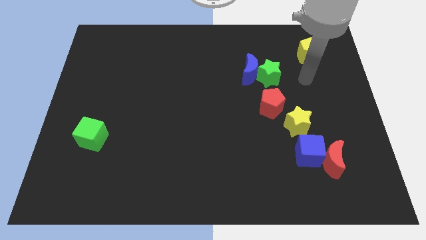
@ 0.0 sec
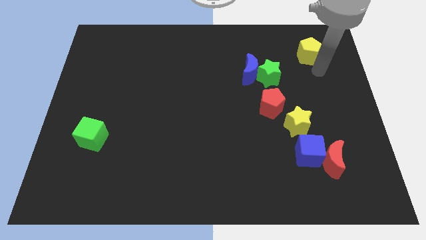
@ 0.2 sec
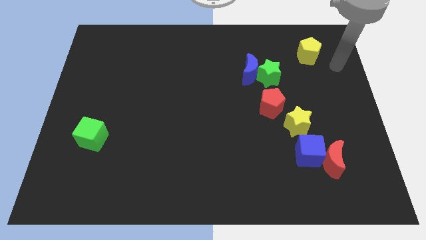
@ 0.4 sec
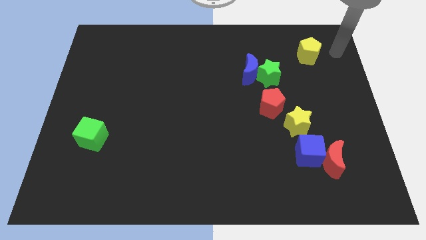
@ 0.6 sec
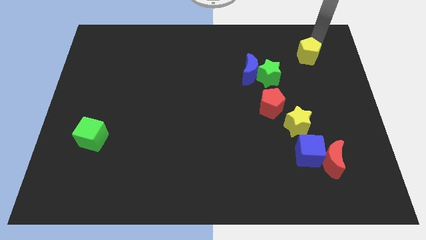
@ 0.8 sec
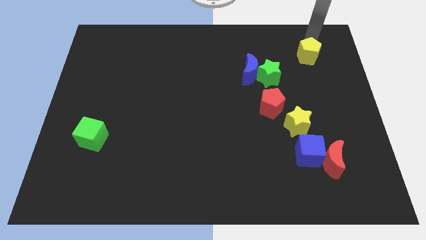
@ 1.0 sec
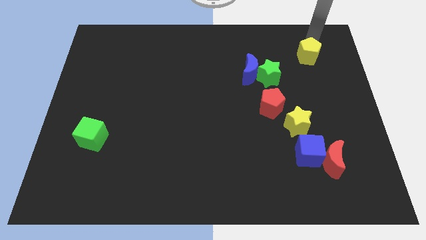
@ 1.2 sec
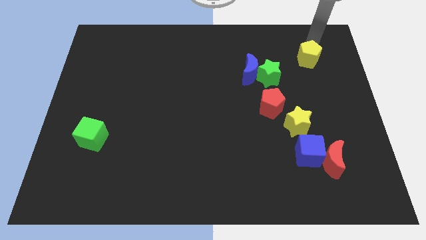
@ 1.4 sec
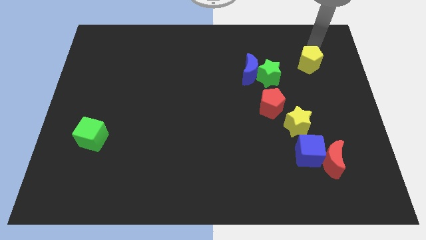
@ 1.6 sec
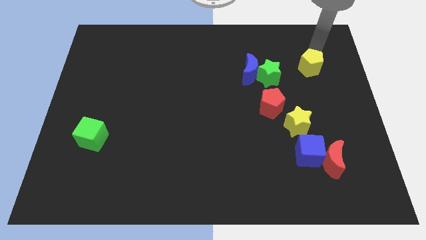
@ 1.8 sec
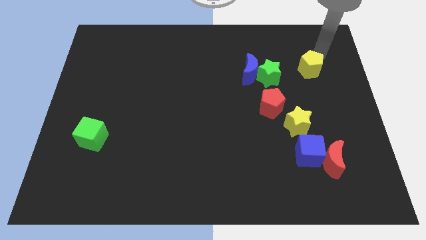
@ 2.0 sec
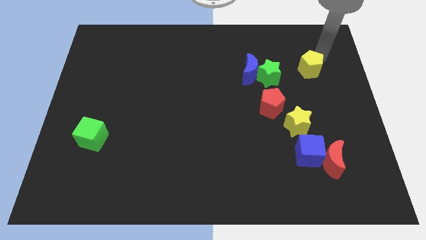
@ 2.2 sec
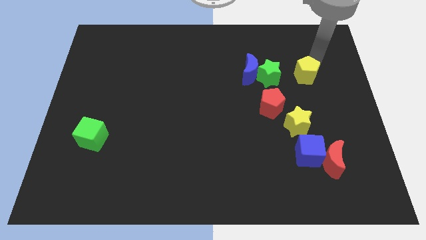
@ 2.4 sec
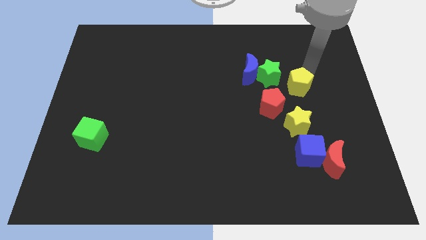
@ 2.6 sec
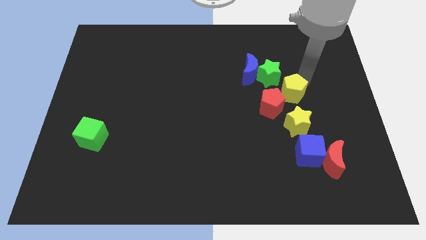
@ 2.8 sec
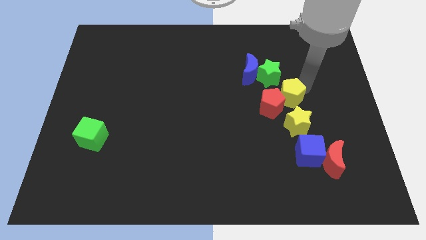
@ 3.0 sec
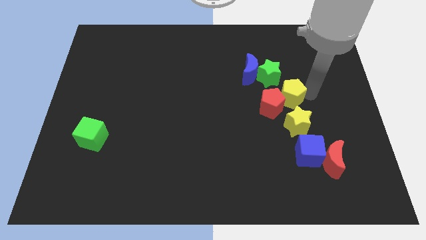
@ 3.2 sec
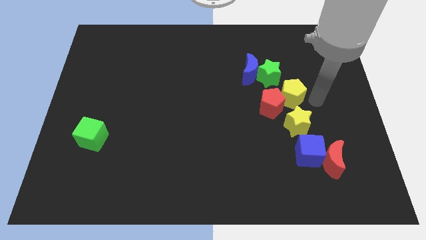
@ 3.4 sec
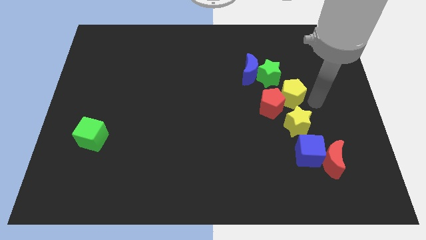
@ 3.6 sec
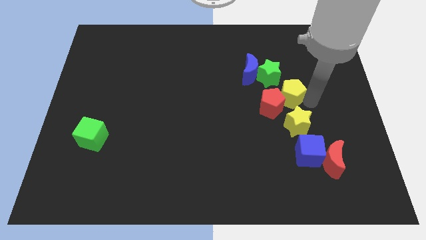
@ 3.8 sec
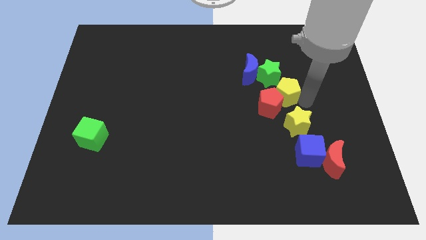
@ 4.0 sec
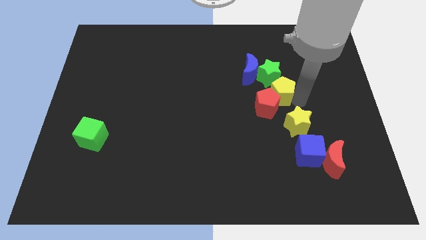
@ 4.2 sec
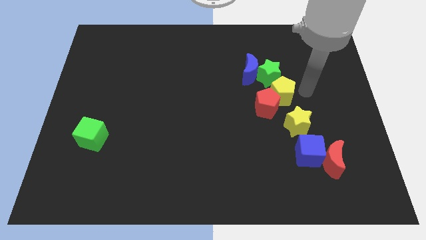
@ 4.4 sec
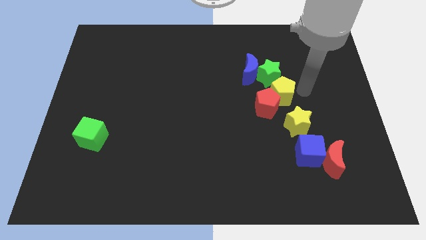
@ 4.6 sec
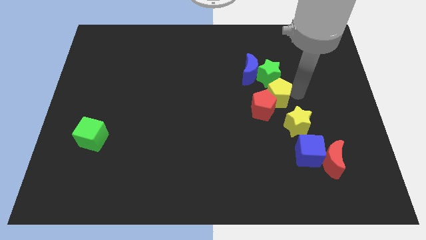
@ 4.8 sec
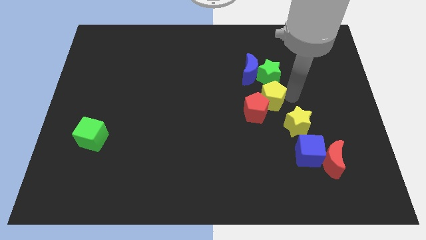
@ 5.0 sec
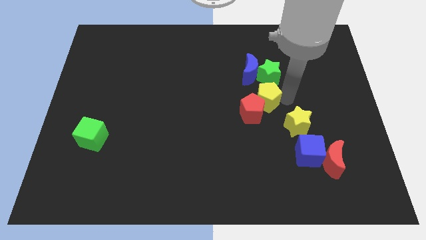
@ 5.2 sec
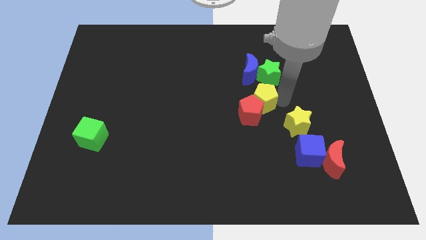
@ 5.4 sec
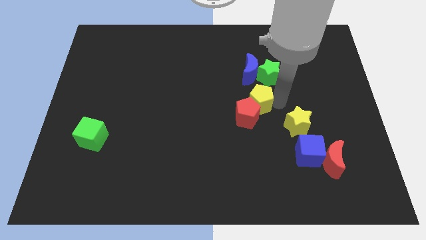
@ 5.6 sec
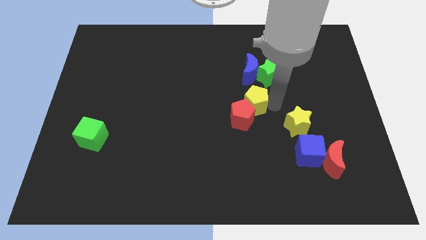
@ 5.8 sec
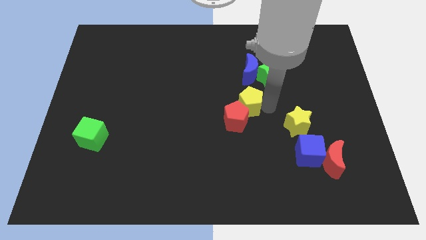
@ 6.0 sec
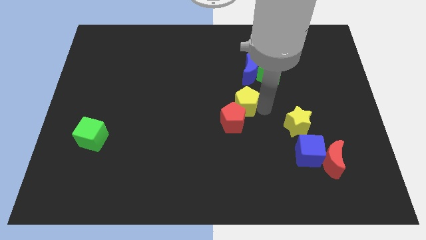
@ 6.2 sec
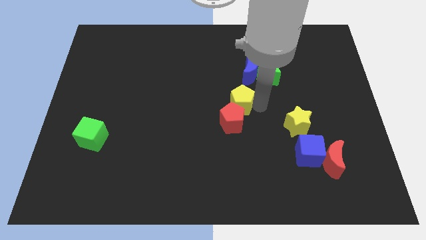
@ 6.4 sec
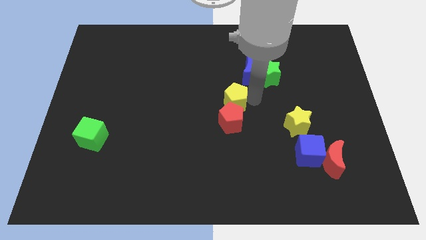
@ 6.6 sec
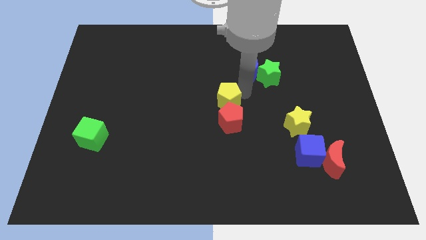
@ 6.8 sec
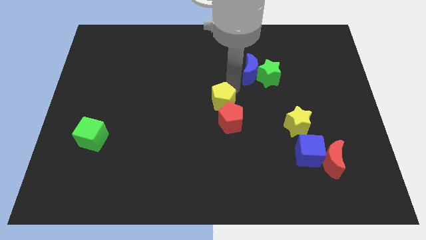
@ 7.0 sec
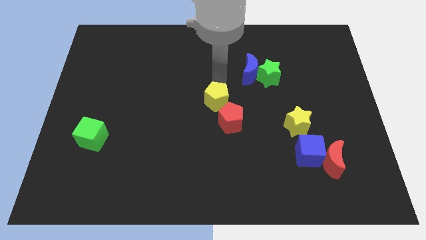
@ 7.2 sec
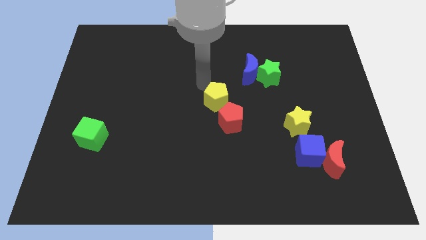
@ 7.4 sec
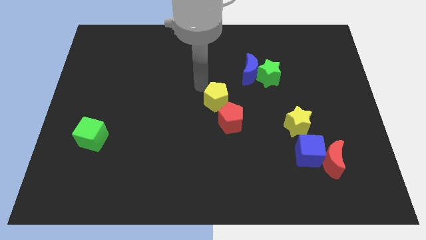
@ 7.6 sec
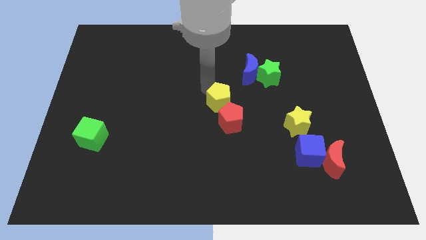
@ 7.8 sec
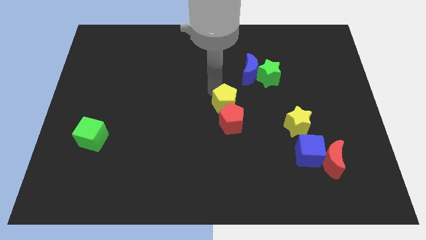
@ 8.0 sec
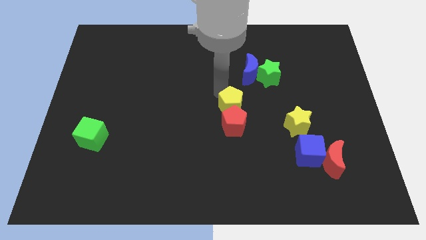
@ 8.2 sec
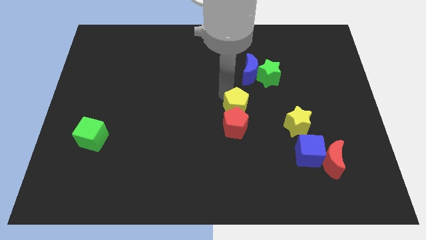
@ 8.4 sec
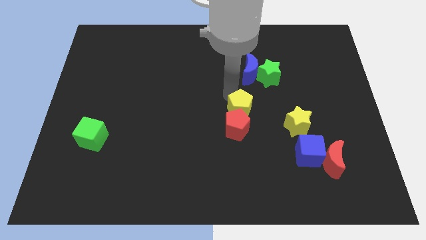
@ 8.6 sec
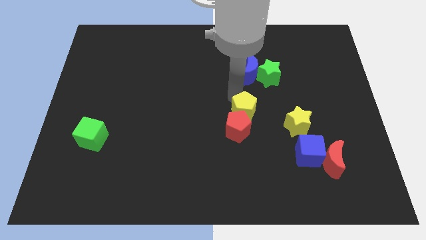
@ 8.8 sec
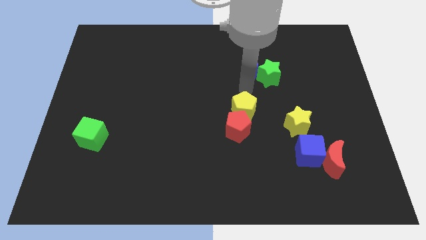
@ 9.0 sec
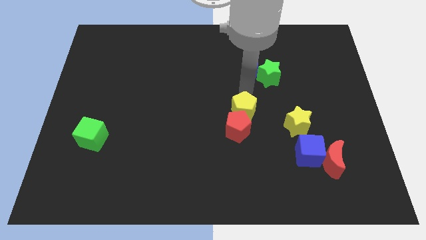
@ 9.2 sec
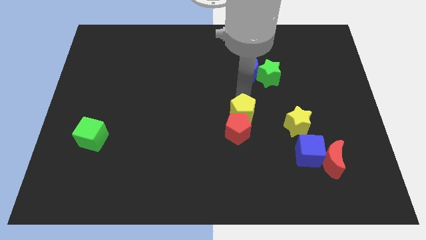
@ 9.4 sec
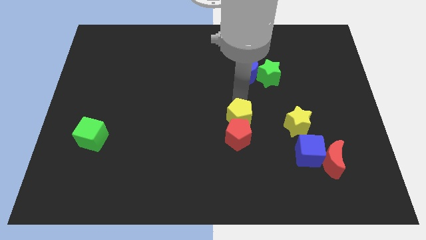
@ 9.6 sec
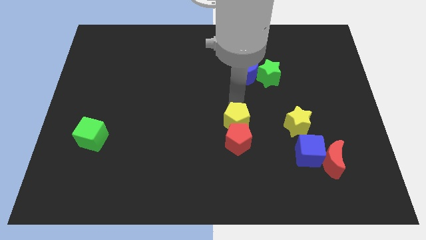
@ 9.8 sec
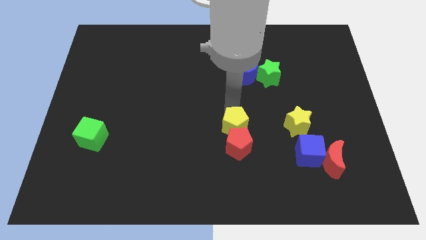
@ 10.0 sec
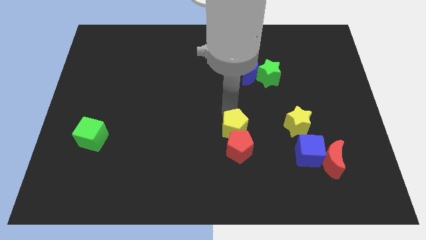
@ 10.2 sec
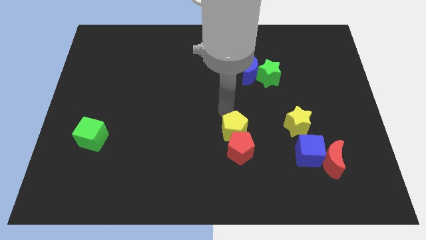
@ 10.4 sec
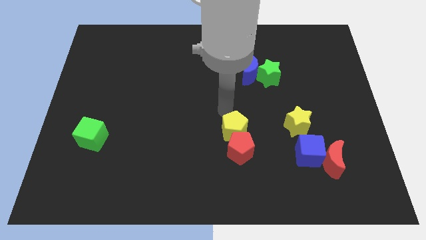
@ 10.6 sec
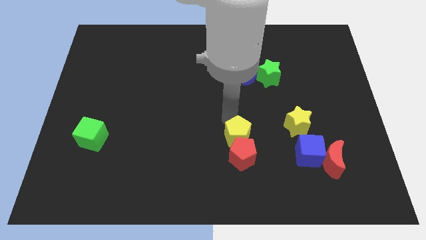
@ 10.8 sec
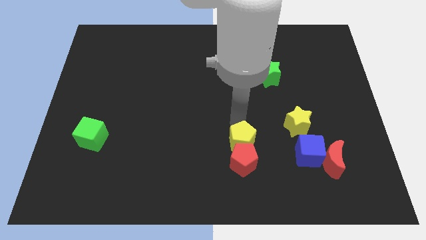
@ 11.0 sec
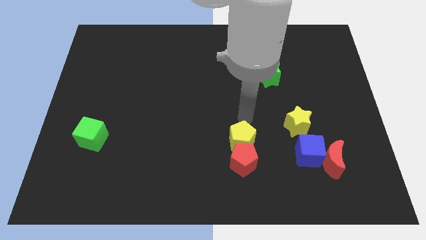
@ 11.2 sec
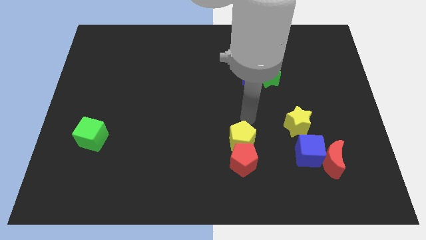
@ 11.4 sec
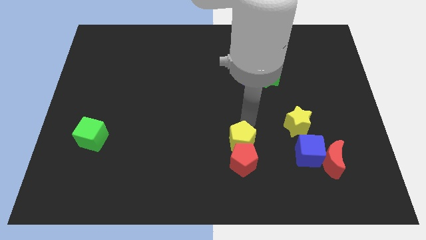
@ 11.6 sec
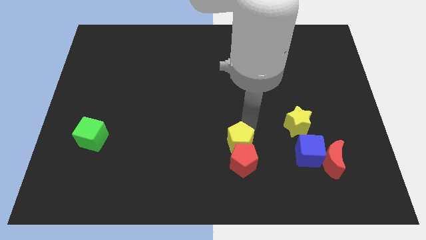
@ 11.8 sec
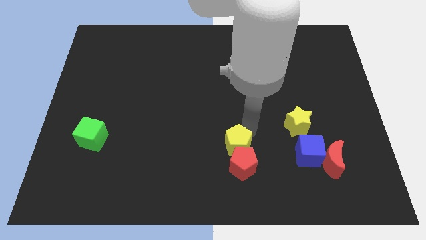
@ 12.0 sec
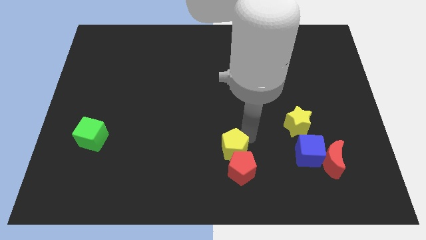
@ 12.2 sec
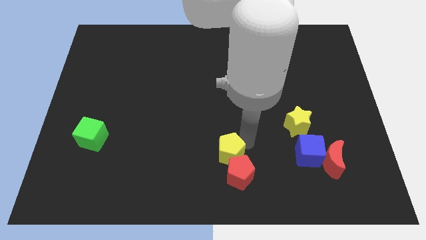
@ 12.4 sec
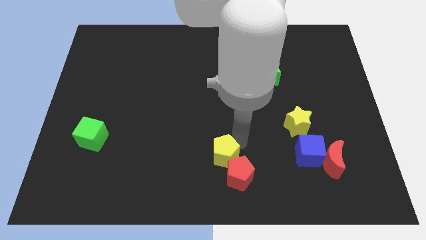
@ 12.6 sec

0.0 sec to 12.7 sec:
slide the yellow pentagon to the bottom side

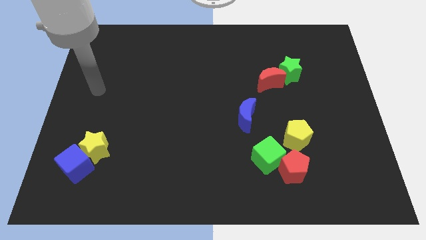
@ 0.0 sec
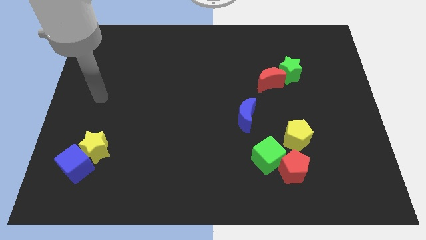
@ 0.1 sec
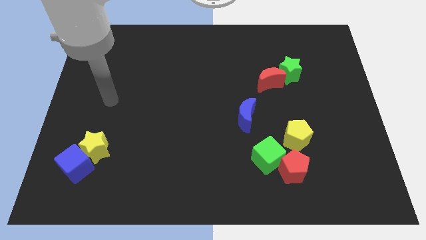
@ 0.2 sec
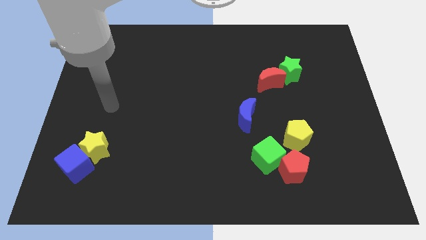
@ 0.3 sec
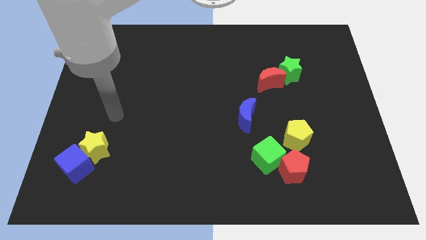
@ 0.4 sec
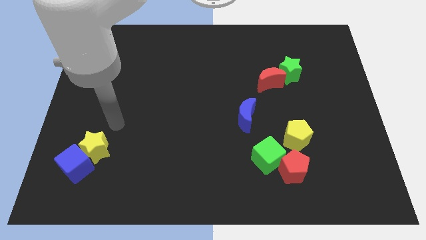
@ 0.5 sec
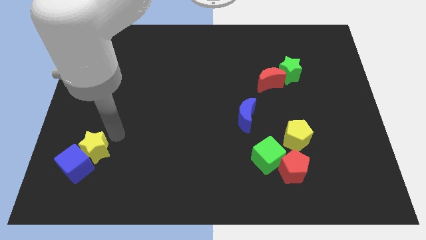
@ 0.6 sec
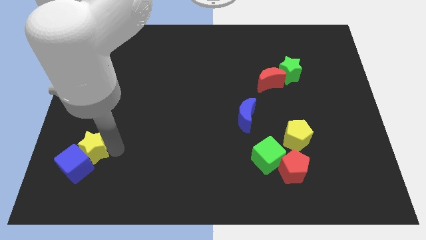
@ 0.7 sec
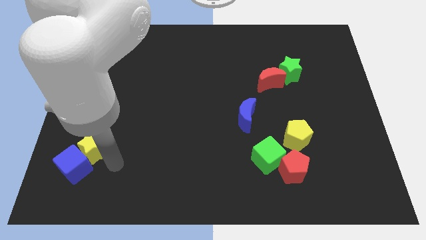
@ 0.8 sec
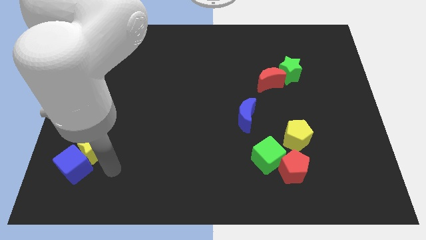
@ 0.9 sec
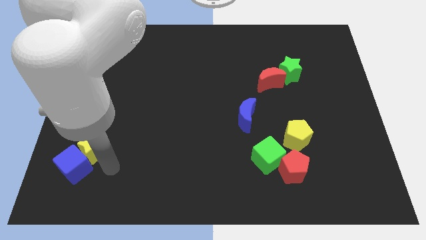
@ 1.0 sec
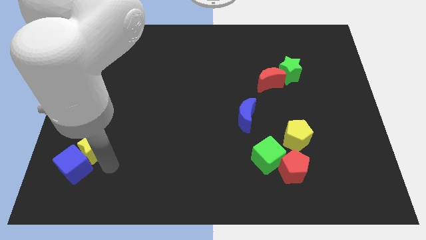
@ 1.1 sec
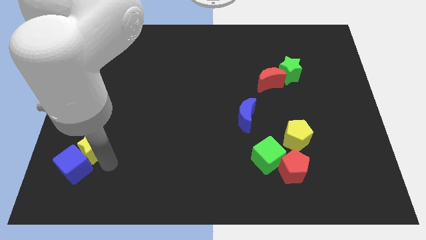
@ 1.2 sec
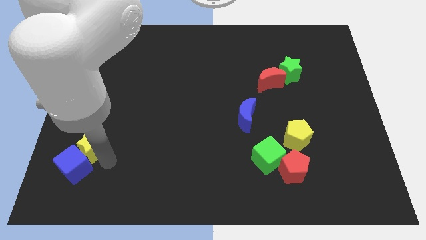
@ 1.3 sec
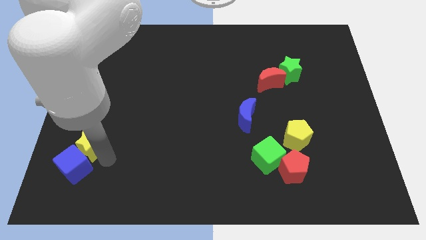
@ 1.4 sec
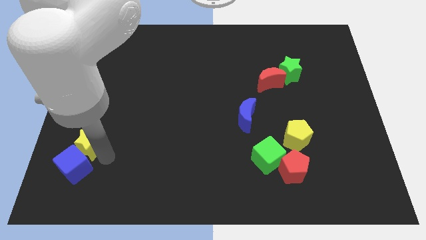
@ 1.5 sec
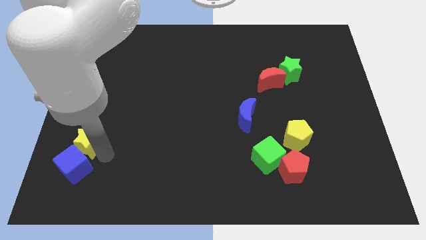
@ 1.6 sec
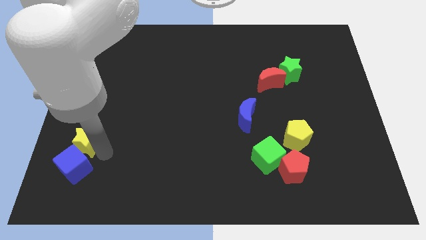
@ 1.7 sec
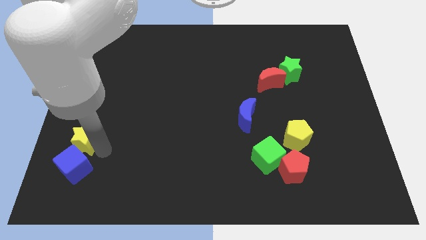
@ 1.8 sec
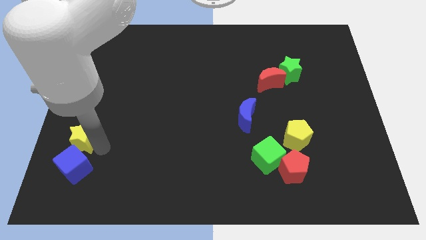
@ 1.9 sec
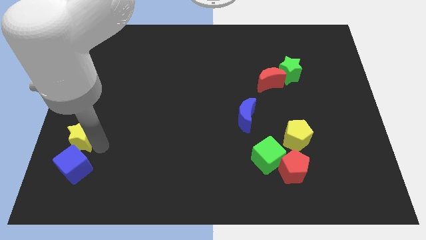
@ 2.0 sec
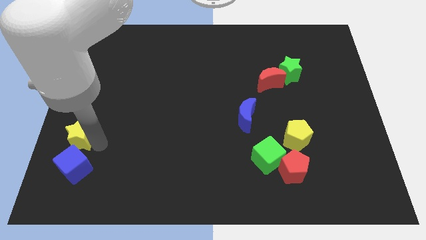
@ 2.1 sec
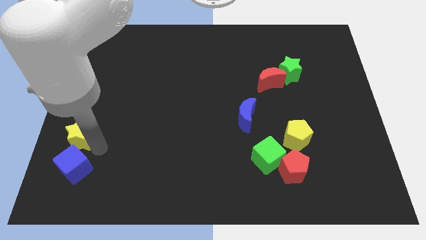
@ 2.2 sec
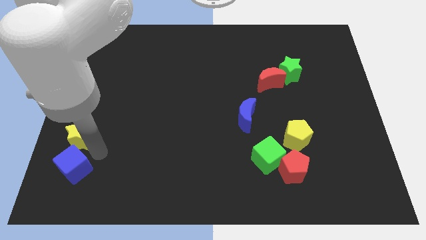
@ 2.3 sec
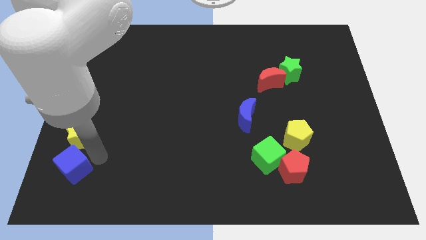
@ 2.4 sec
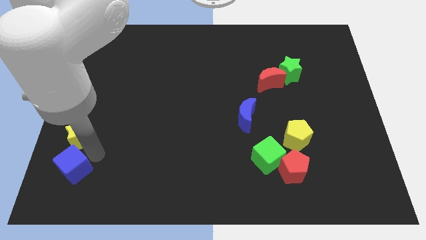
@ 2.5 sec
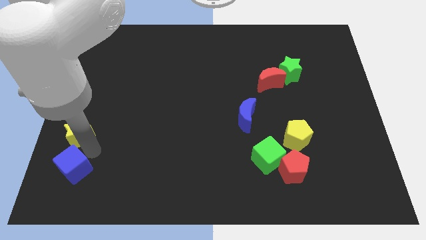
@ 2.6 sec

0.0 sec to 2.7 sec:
move the yellow star to the left side of the board
